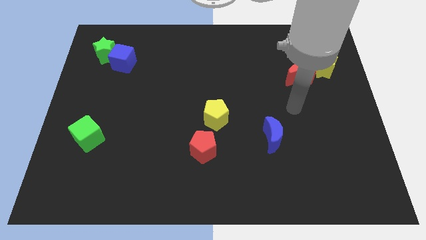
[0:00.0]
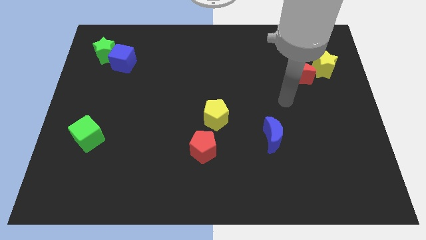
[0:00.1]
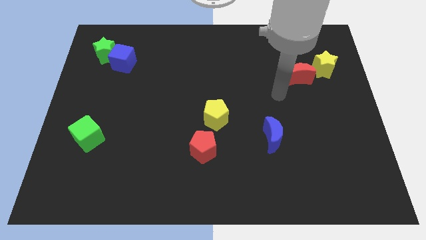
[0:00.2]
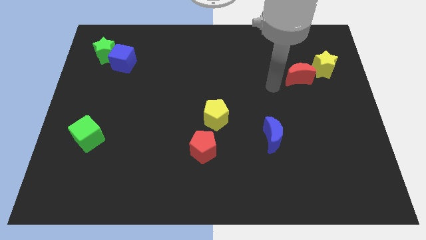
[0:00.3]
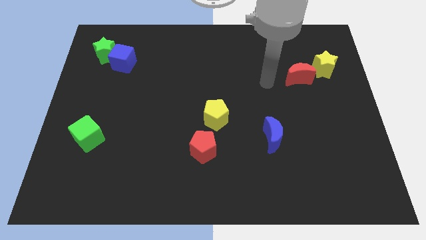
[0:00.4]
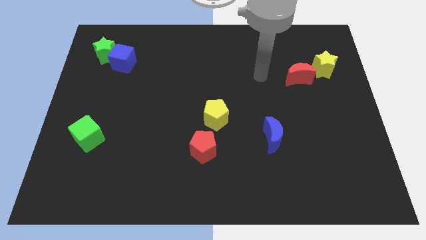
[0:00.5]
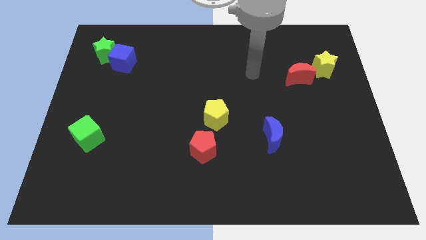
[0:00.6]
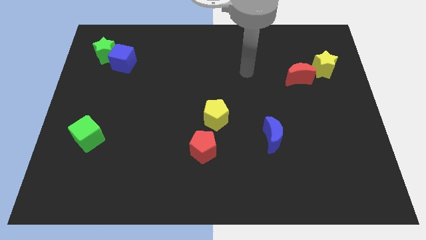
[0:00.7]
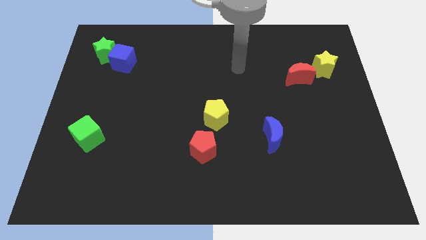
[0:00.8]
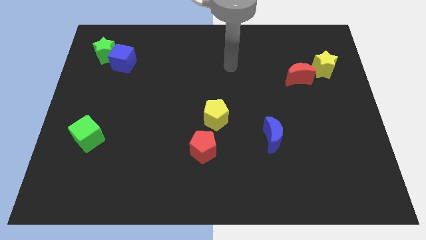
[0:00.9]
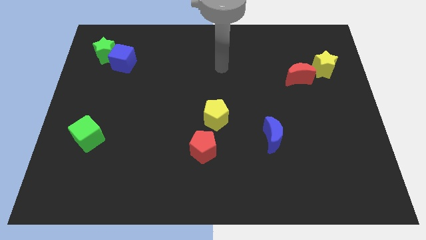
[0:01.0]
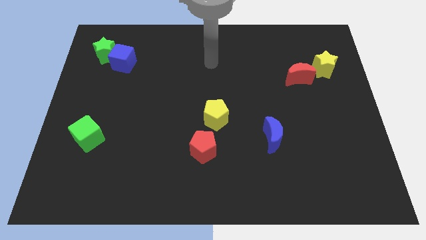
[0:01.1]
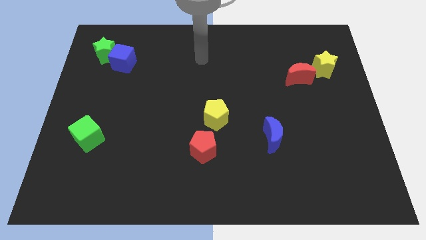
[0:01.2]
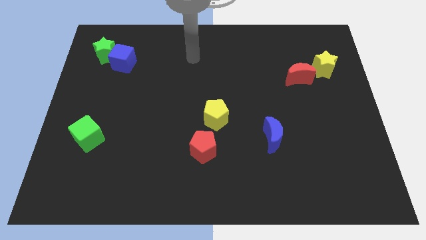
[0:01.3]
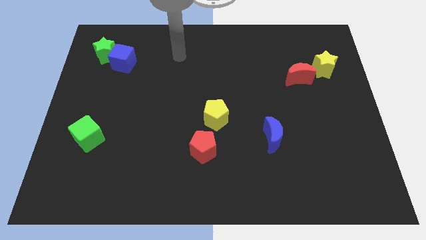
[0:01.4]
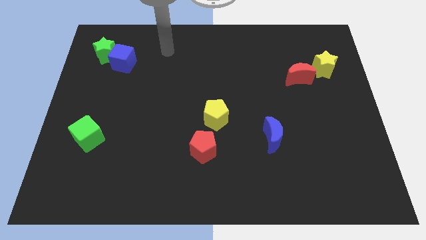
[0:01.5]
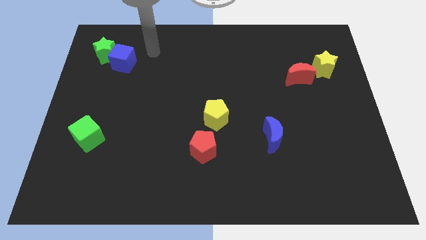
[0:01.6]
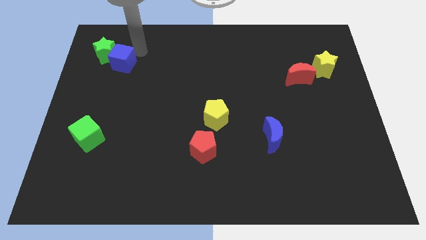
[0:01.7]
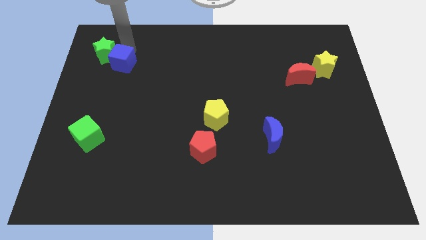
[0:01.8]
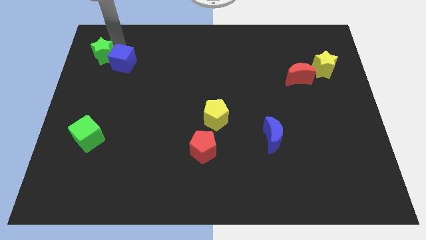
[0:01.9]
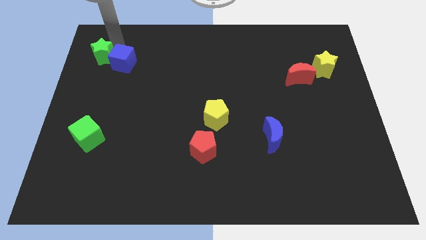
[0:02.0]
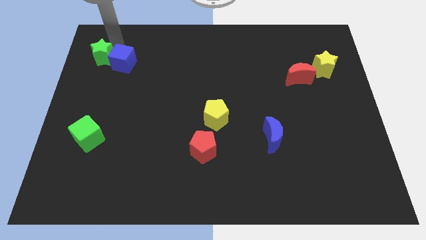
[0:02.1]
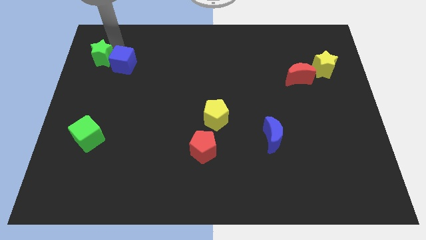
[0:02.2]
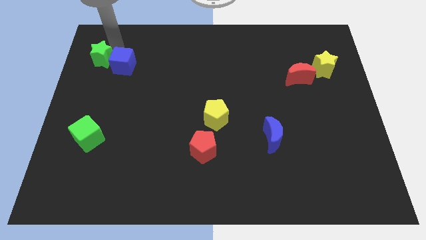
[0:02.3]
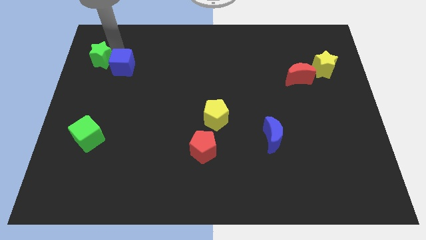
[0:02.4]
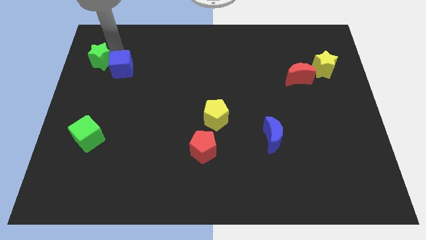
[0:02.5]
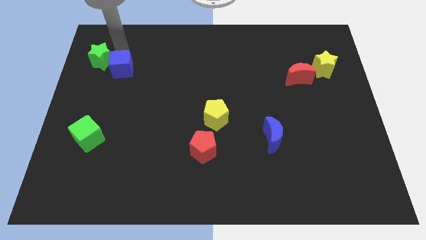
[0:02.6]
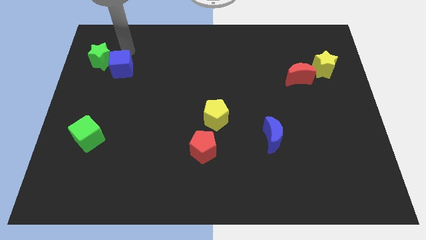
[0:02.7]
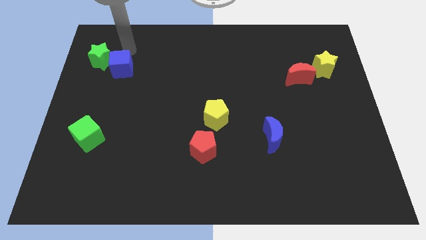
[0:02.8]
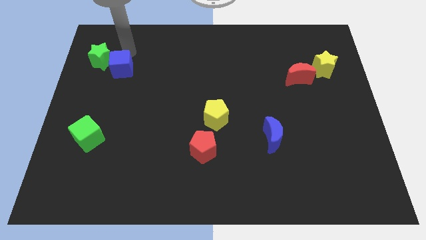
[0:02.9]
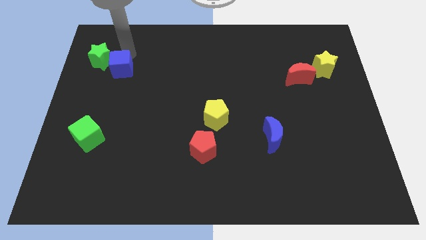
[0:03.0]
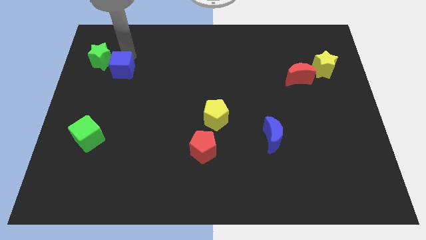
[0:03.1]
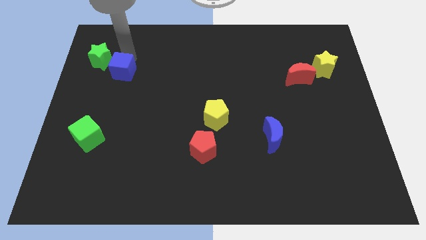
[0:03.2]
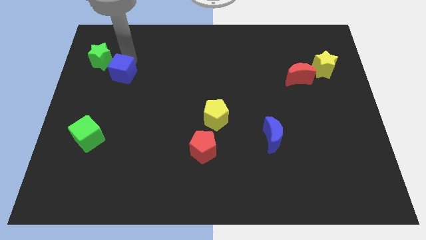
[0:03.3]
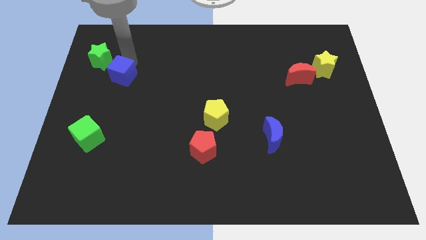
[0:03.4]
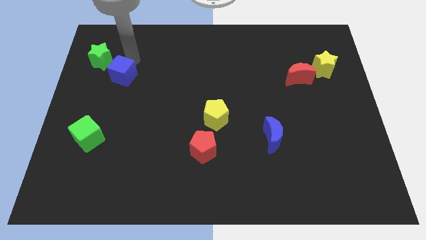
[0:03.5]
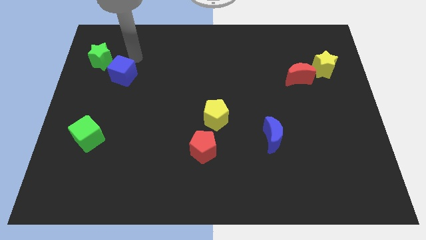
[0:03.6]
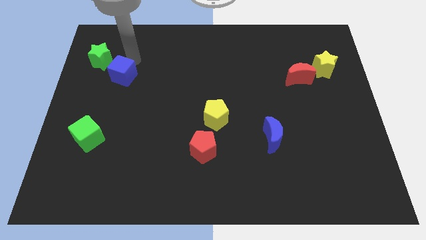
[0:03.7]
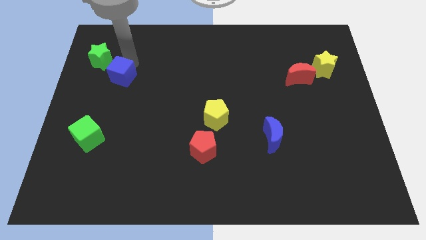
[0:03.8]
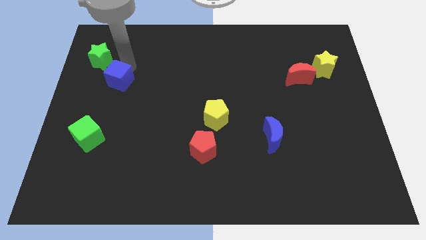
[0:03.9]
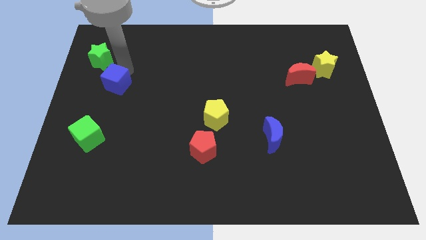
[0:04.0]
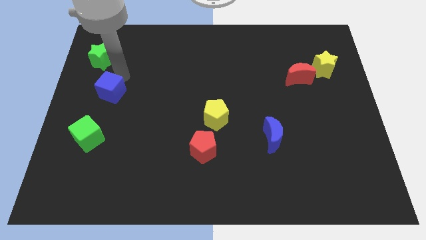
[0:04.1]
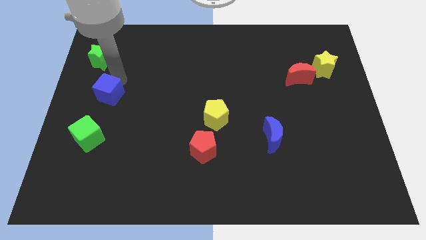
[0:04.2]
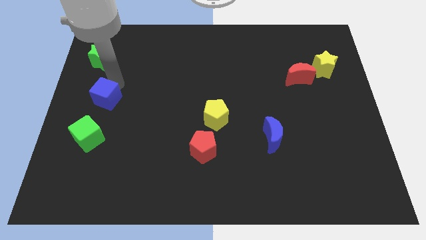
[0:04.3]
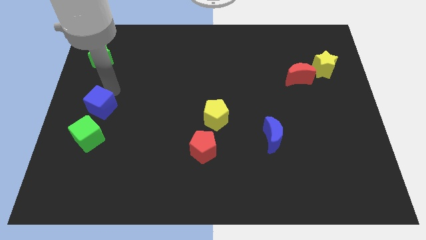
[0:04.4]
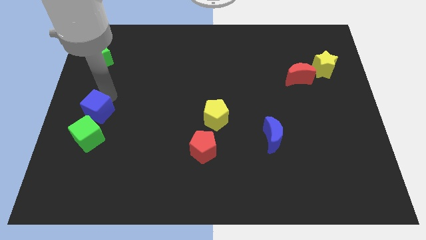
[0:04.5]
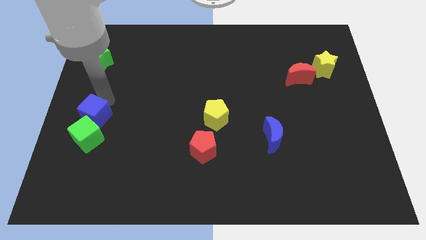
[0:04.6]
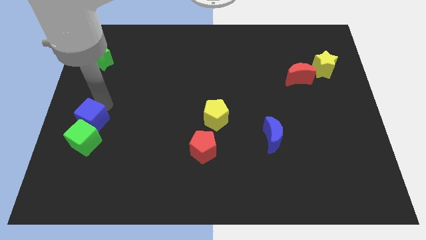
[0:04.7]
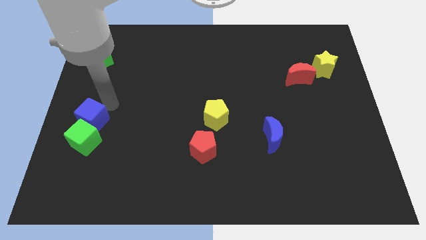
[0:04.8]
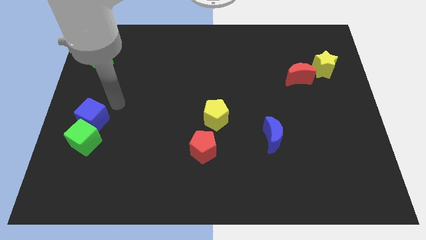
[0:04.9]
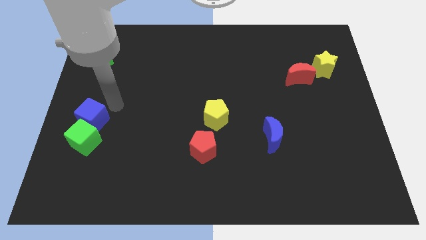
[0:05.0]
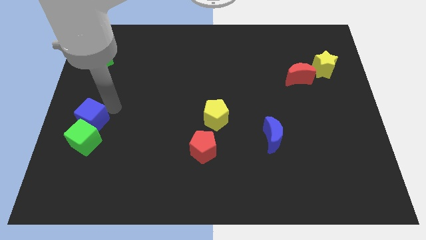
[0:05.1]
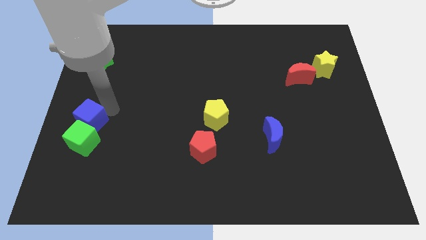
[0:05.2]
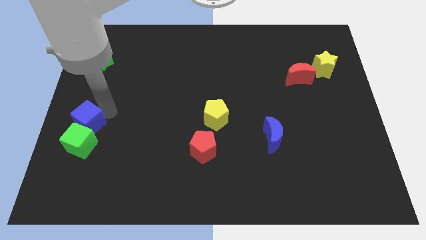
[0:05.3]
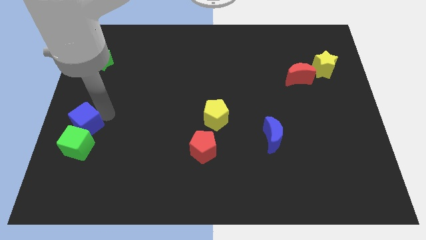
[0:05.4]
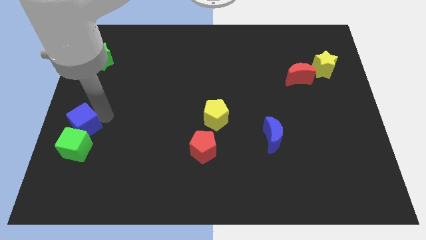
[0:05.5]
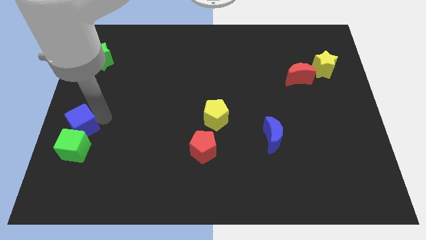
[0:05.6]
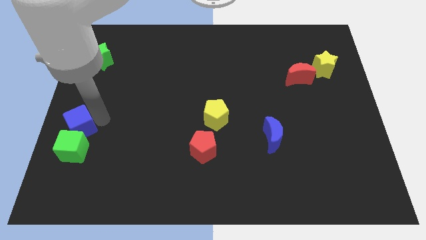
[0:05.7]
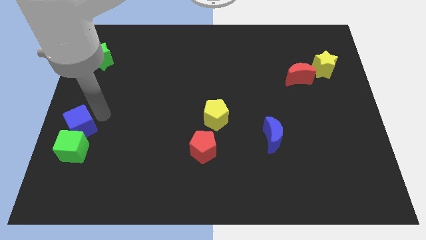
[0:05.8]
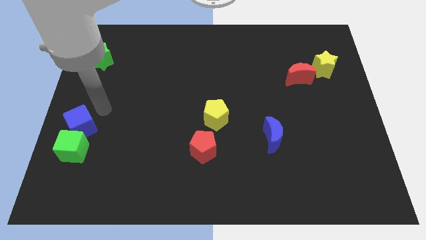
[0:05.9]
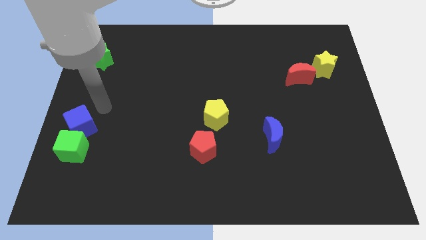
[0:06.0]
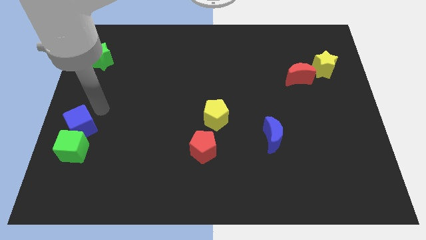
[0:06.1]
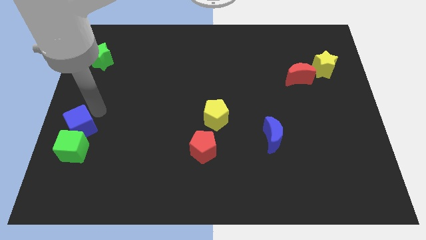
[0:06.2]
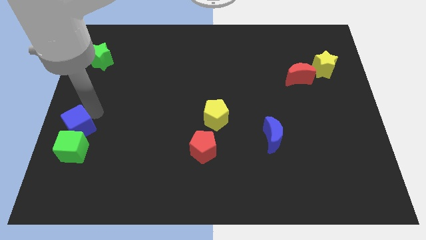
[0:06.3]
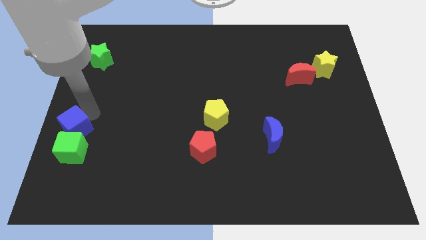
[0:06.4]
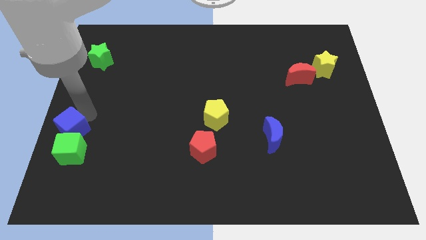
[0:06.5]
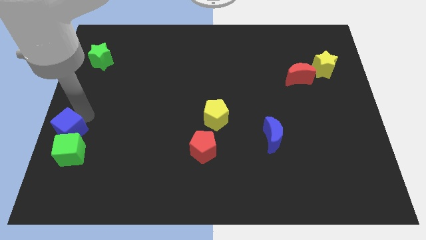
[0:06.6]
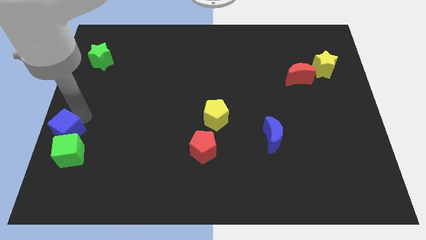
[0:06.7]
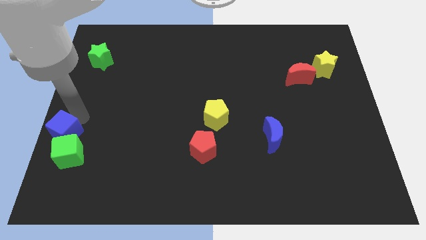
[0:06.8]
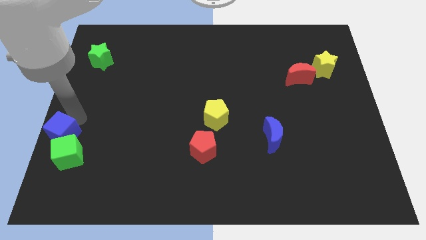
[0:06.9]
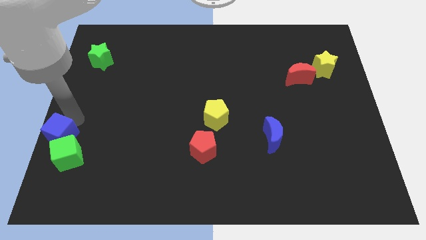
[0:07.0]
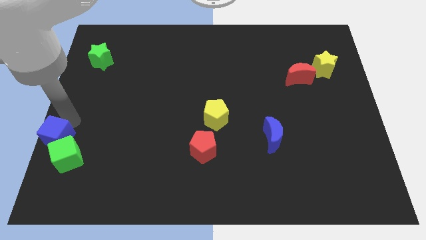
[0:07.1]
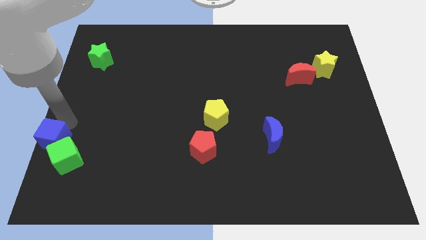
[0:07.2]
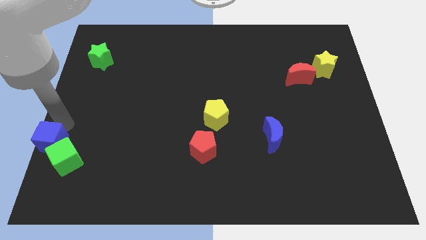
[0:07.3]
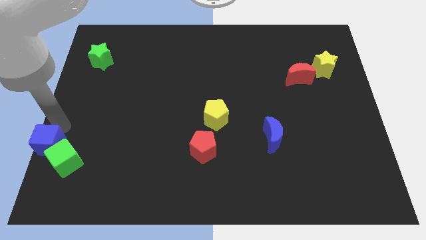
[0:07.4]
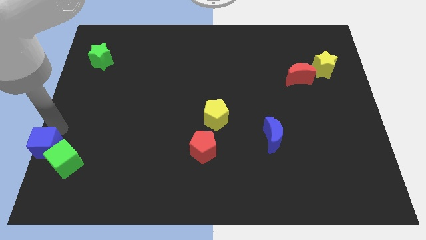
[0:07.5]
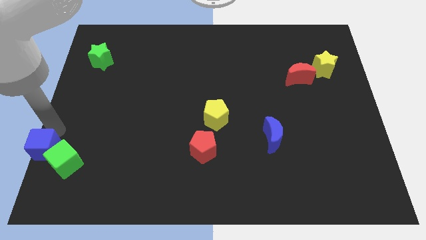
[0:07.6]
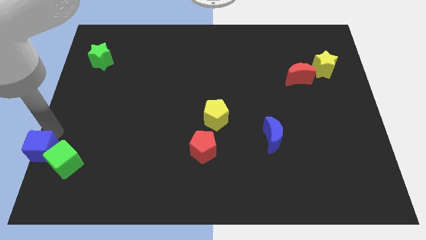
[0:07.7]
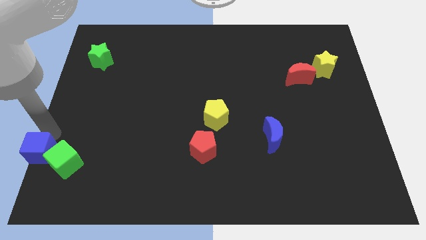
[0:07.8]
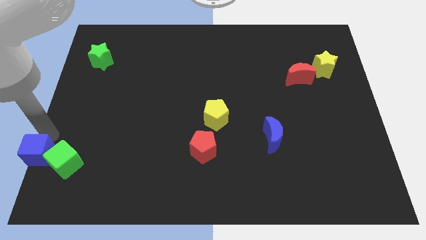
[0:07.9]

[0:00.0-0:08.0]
put the blue cube to the lower left corner
